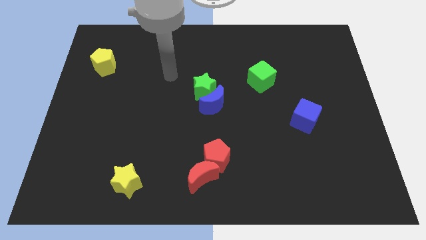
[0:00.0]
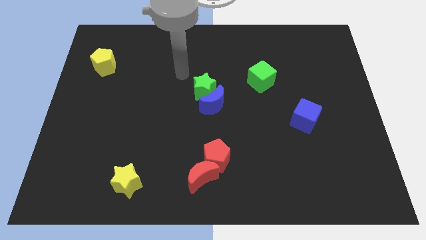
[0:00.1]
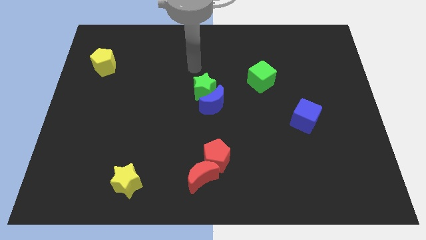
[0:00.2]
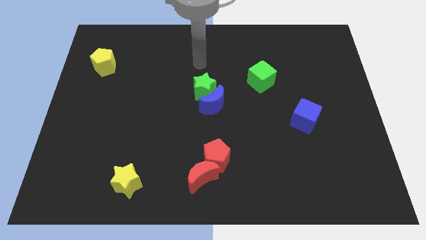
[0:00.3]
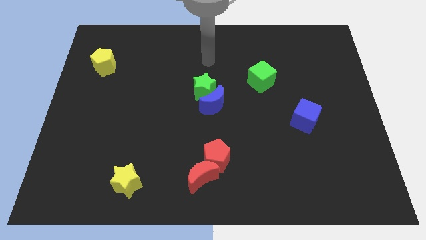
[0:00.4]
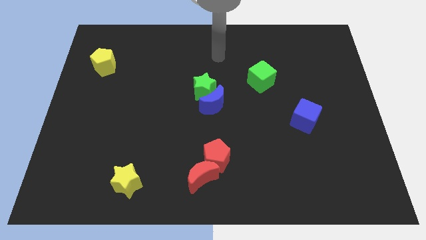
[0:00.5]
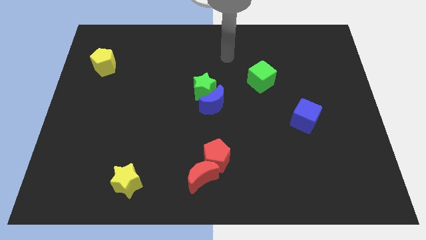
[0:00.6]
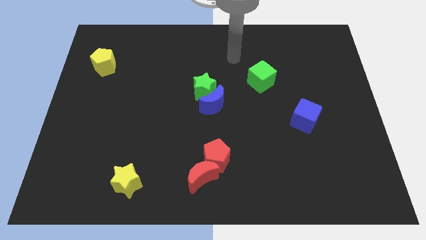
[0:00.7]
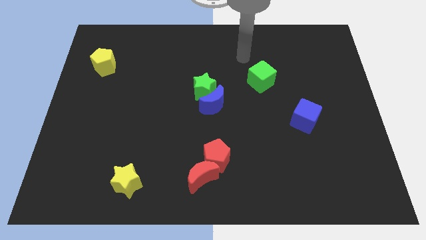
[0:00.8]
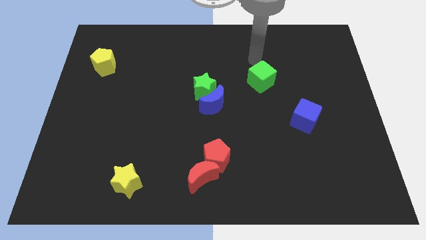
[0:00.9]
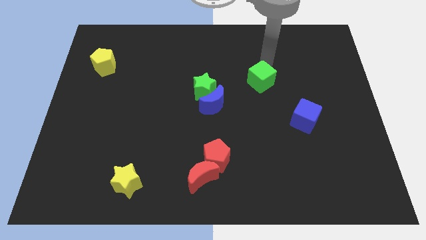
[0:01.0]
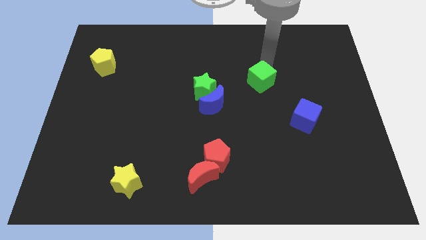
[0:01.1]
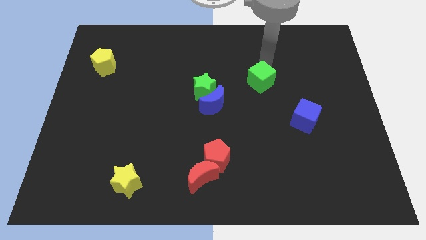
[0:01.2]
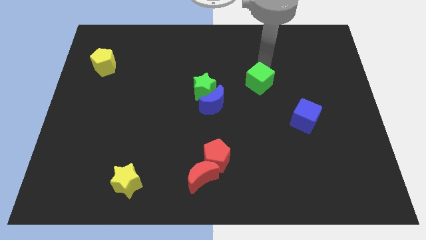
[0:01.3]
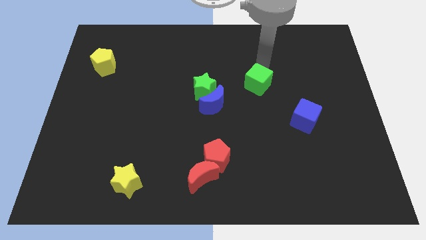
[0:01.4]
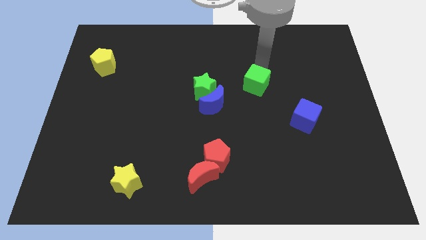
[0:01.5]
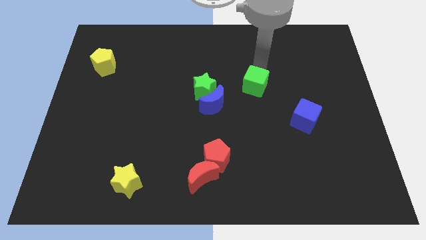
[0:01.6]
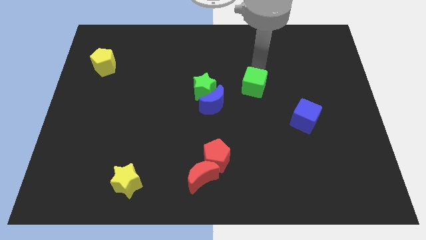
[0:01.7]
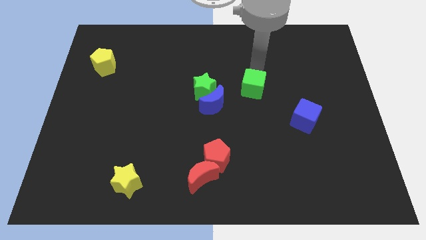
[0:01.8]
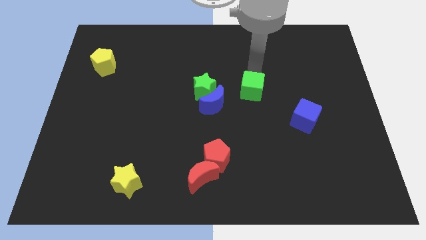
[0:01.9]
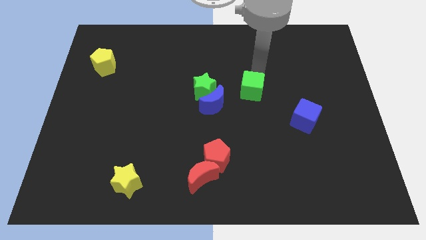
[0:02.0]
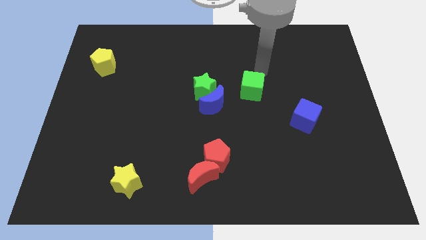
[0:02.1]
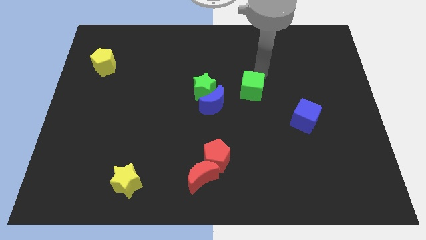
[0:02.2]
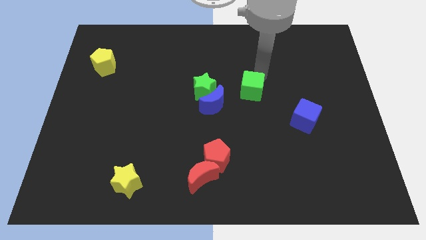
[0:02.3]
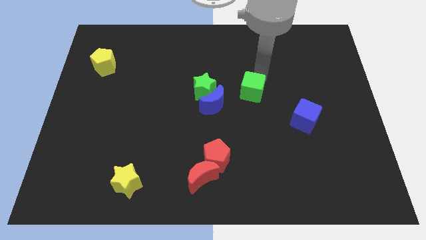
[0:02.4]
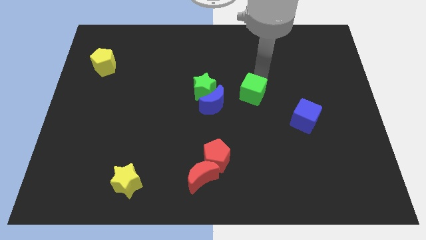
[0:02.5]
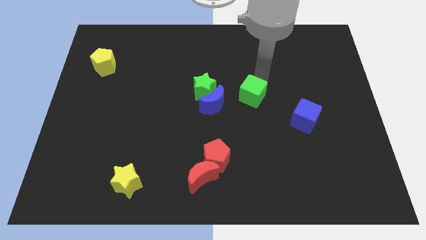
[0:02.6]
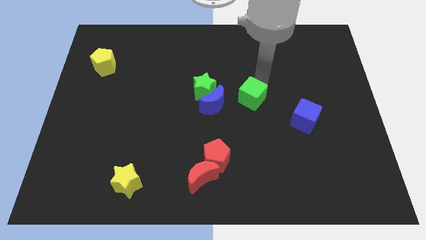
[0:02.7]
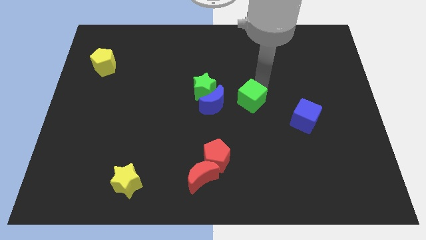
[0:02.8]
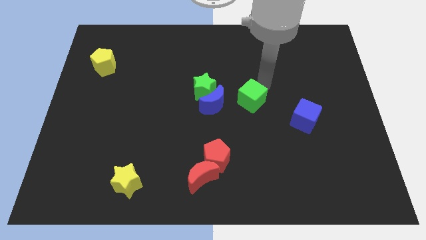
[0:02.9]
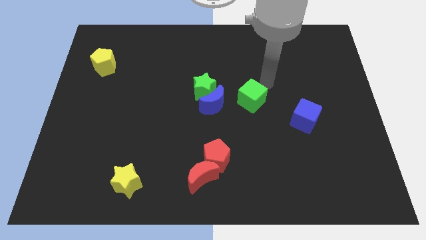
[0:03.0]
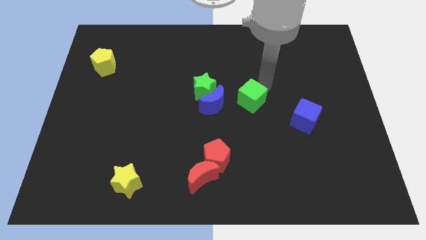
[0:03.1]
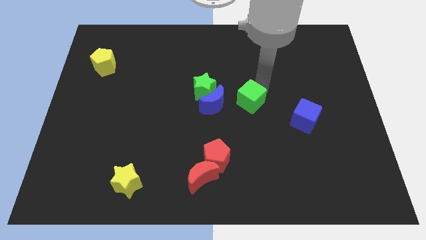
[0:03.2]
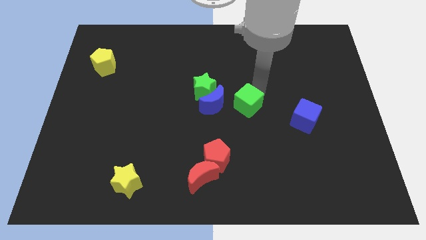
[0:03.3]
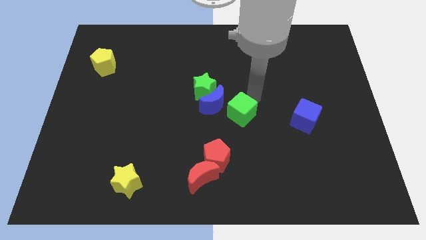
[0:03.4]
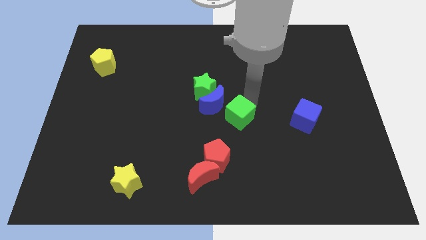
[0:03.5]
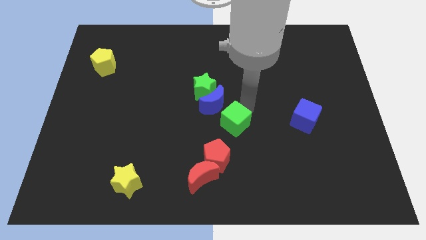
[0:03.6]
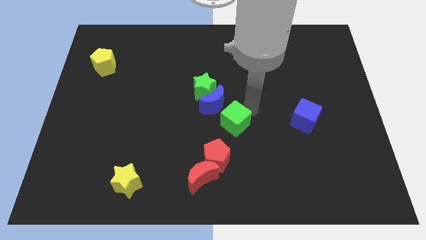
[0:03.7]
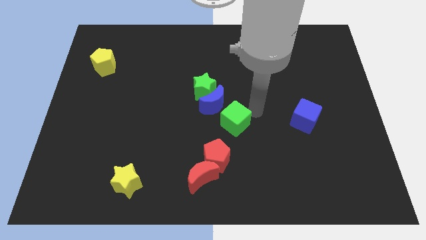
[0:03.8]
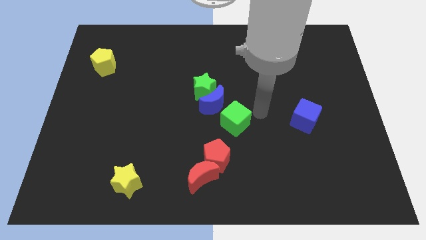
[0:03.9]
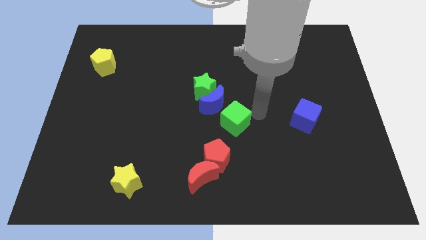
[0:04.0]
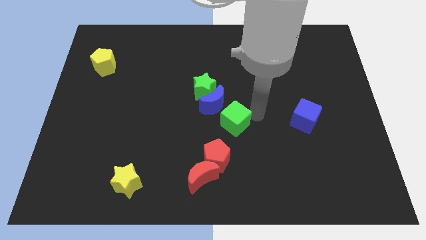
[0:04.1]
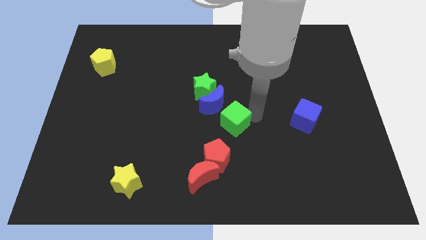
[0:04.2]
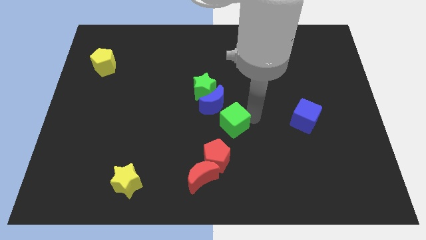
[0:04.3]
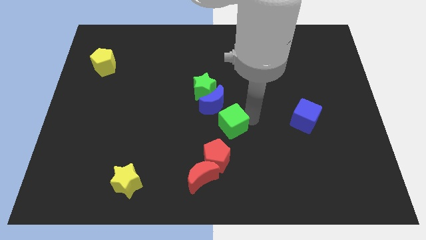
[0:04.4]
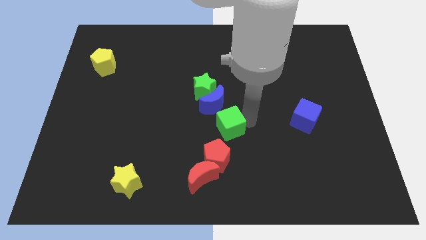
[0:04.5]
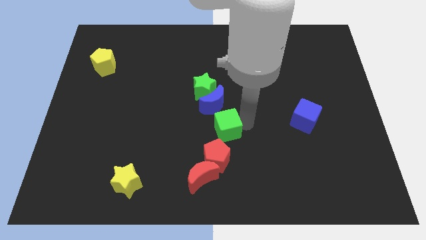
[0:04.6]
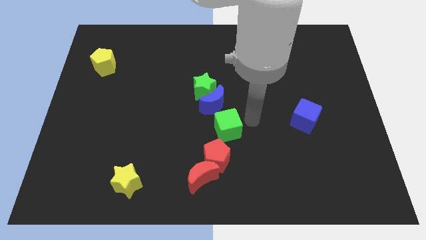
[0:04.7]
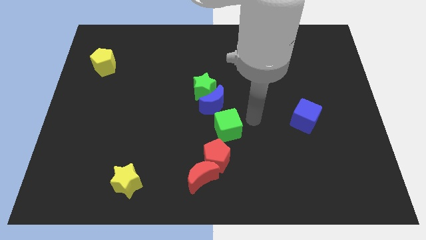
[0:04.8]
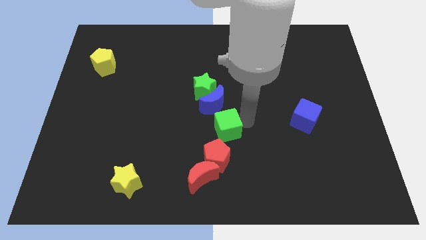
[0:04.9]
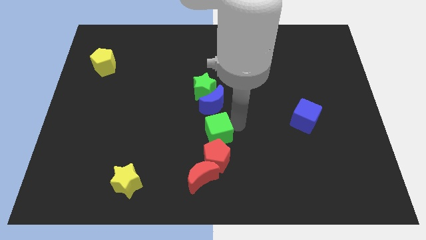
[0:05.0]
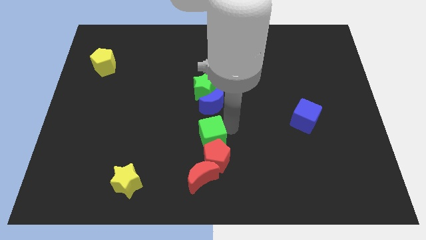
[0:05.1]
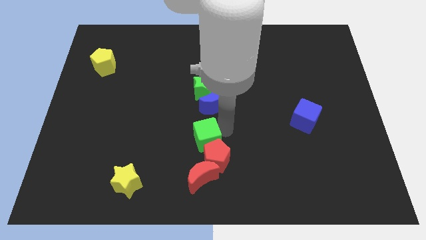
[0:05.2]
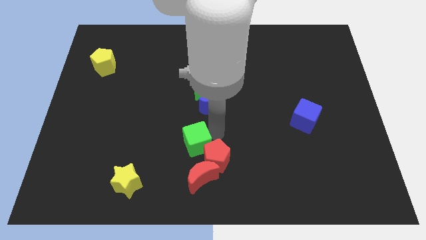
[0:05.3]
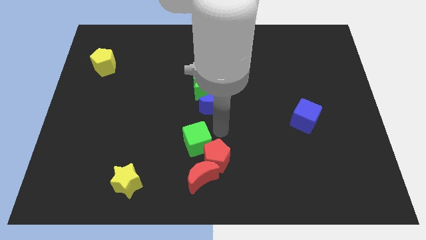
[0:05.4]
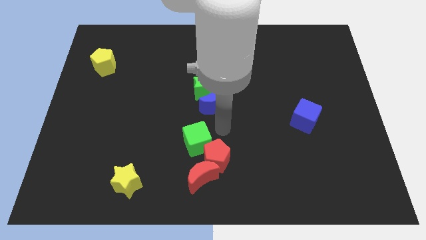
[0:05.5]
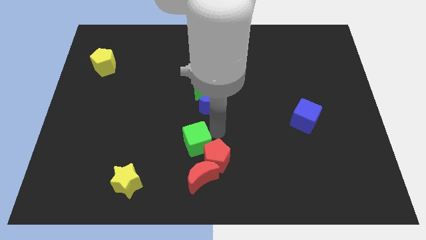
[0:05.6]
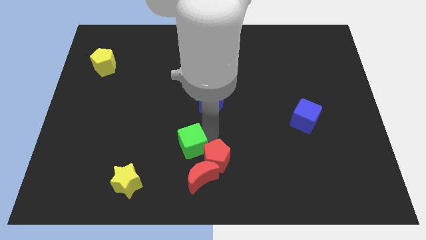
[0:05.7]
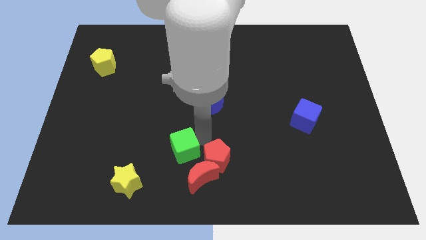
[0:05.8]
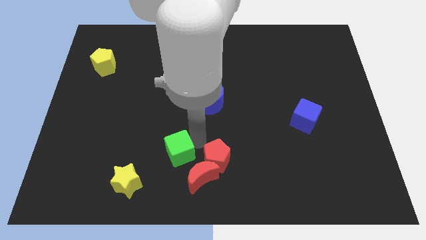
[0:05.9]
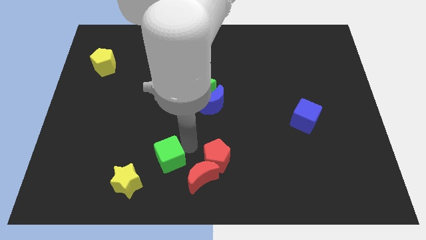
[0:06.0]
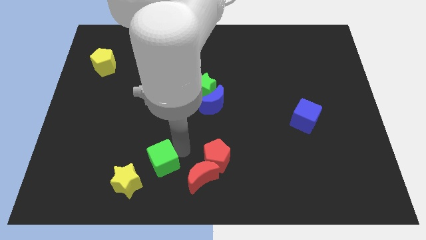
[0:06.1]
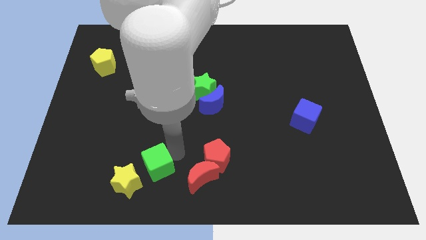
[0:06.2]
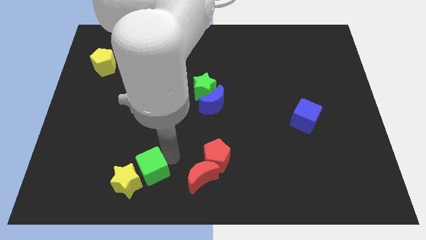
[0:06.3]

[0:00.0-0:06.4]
slide the green cube next to the yellow star

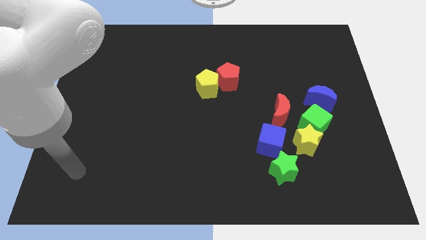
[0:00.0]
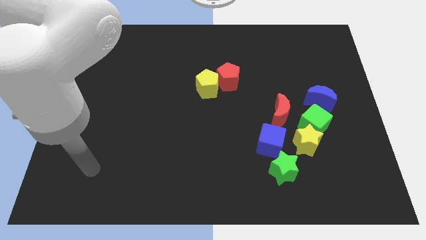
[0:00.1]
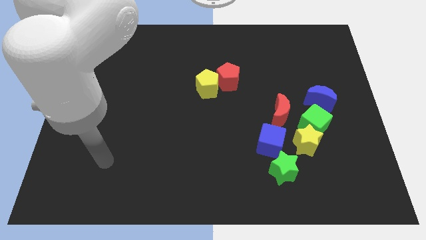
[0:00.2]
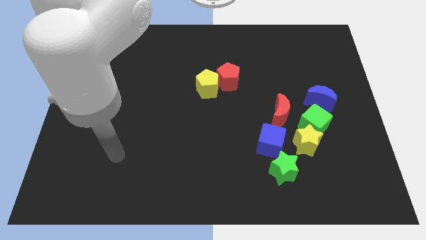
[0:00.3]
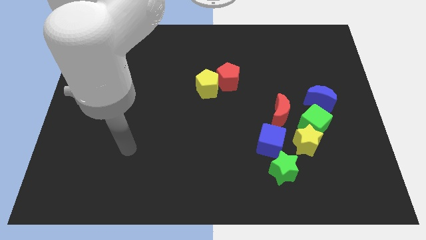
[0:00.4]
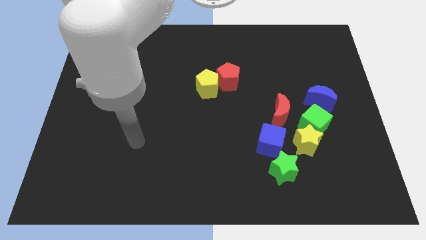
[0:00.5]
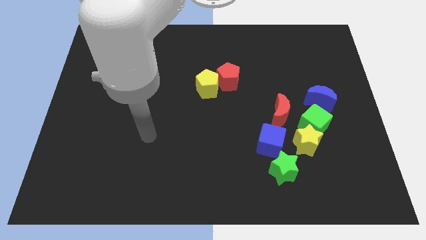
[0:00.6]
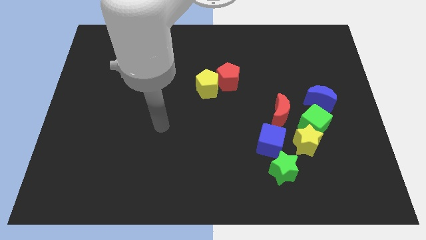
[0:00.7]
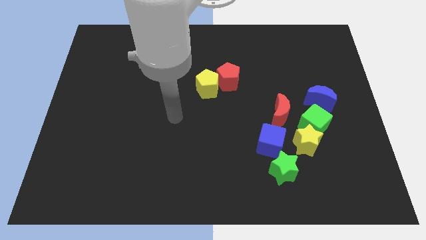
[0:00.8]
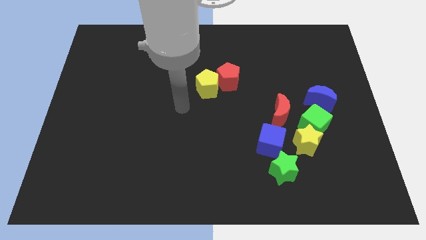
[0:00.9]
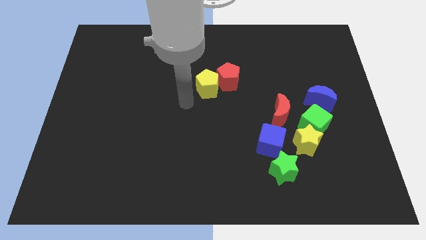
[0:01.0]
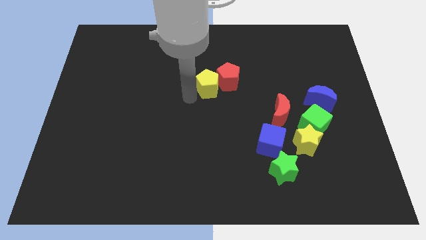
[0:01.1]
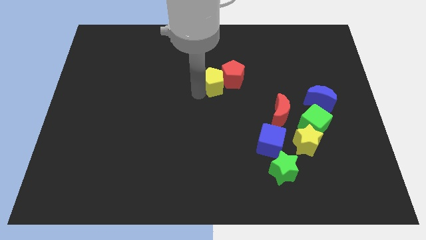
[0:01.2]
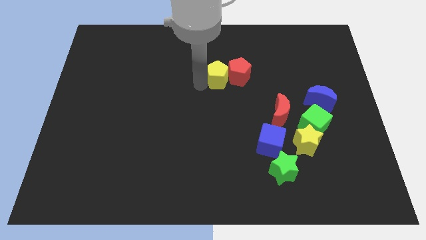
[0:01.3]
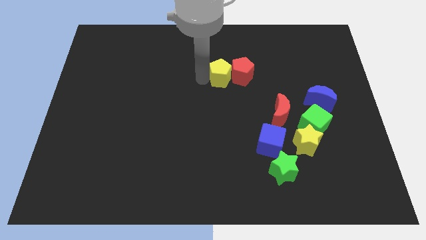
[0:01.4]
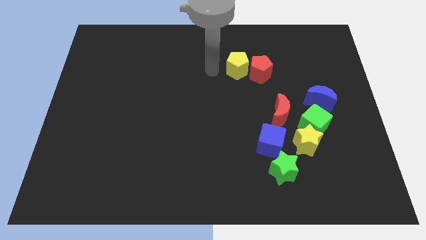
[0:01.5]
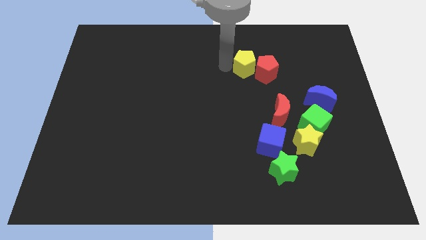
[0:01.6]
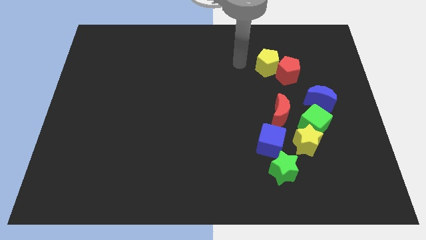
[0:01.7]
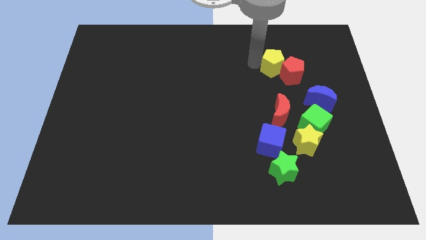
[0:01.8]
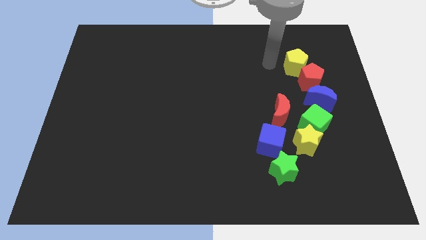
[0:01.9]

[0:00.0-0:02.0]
put the red pentagon towards the blue moon
